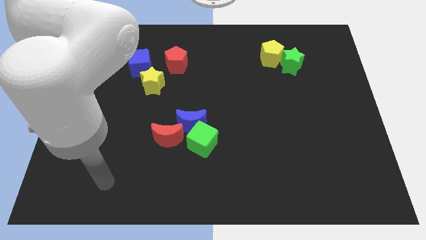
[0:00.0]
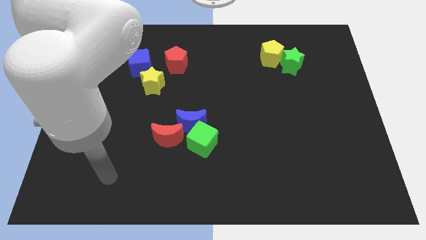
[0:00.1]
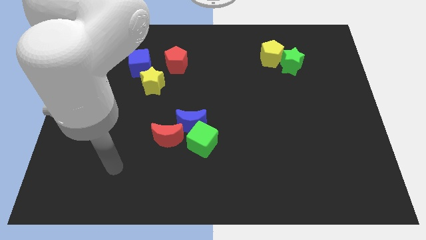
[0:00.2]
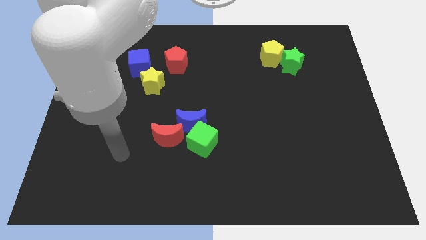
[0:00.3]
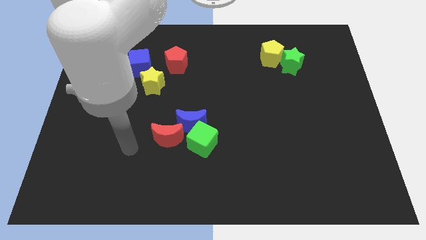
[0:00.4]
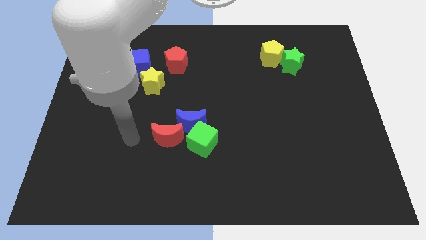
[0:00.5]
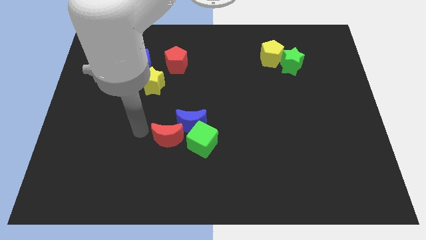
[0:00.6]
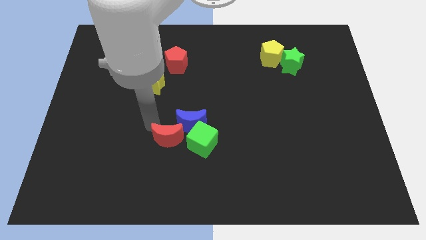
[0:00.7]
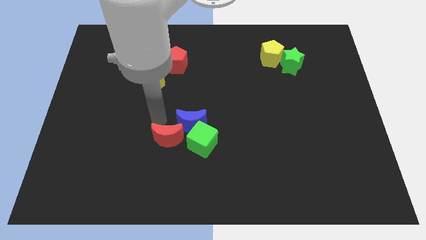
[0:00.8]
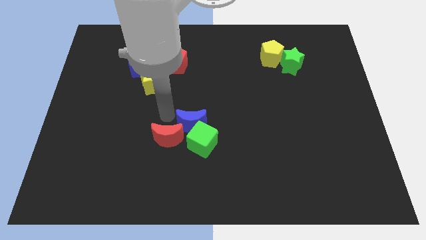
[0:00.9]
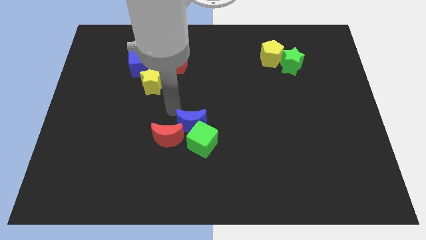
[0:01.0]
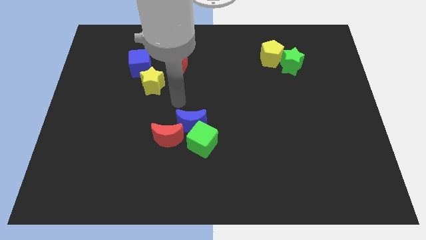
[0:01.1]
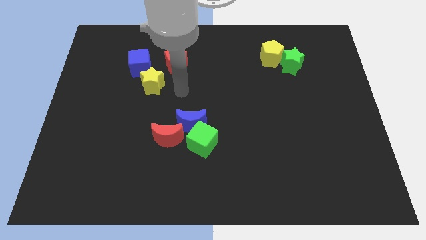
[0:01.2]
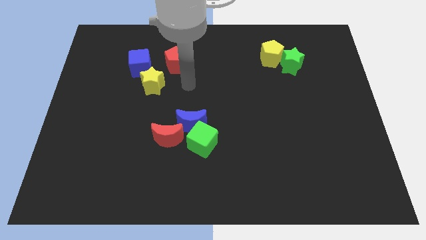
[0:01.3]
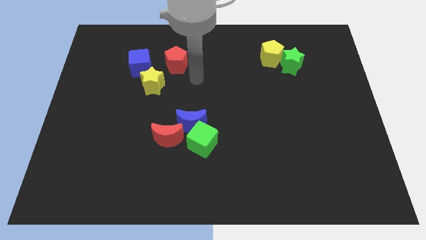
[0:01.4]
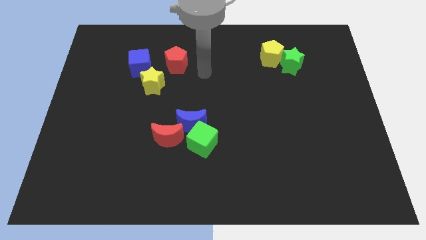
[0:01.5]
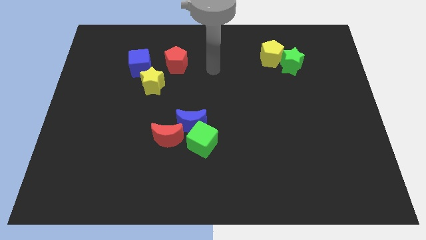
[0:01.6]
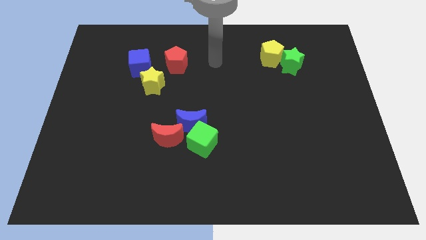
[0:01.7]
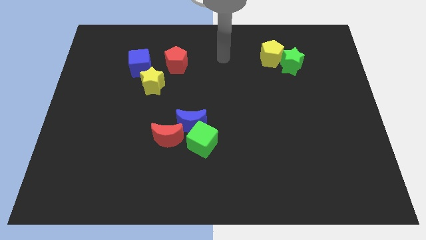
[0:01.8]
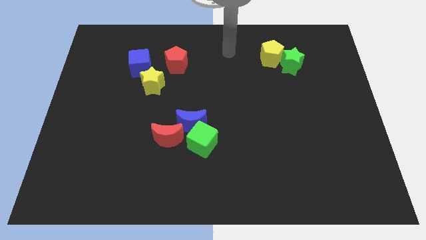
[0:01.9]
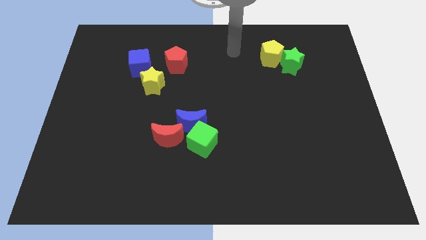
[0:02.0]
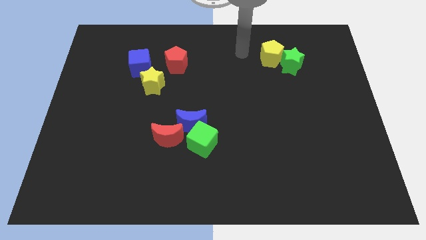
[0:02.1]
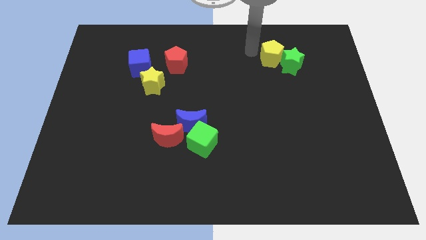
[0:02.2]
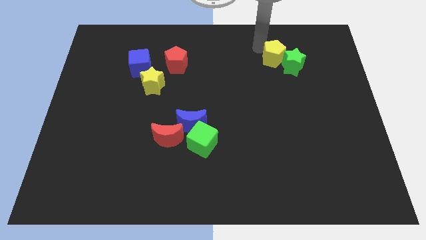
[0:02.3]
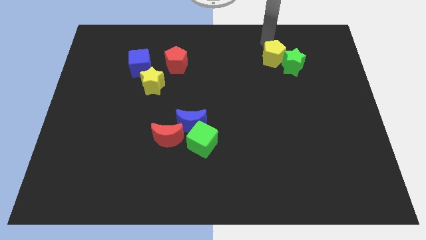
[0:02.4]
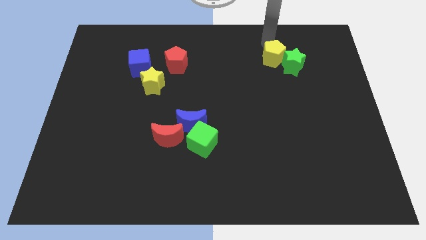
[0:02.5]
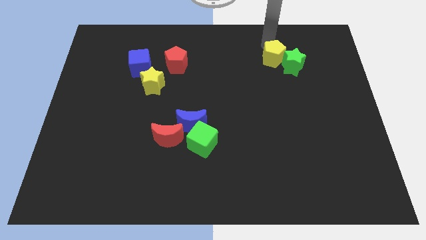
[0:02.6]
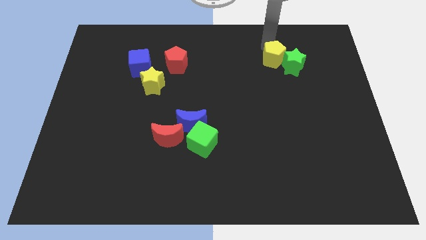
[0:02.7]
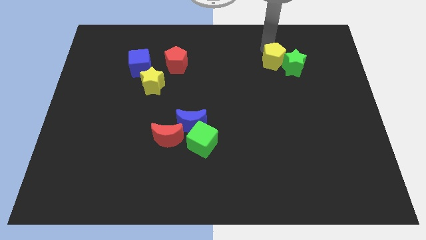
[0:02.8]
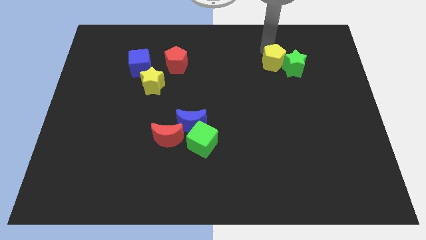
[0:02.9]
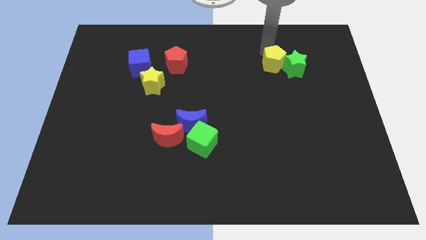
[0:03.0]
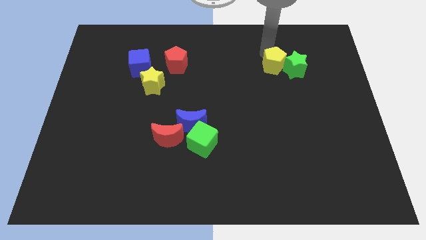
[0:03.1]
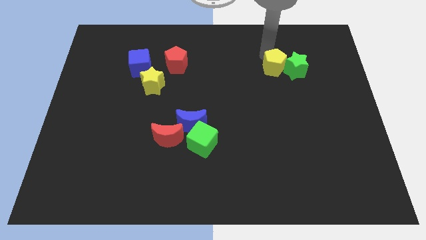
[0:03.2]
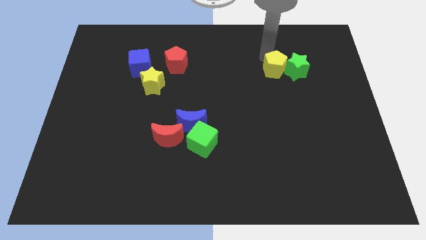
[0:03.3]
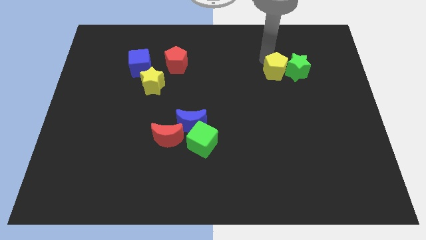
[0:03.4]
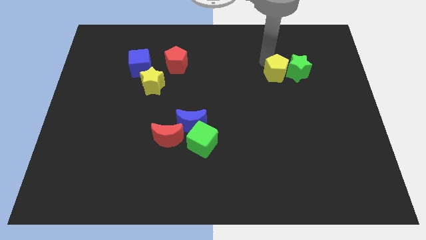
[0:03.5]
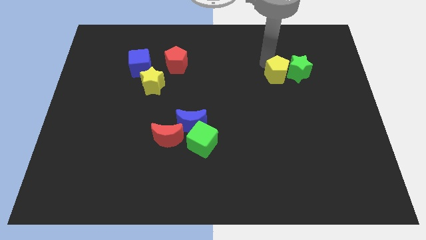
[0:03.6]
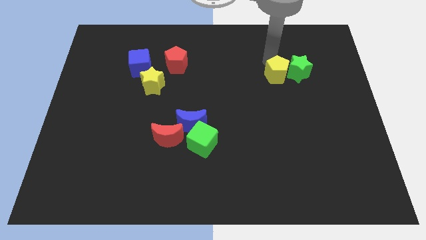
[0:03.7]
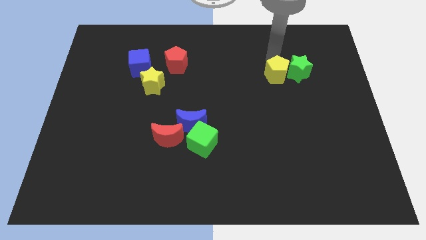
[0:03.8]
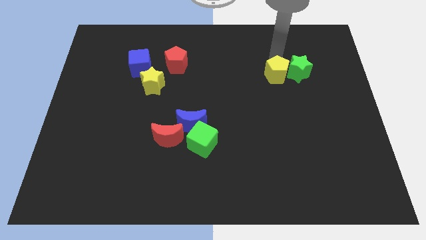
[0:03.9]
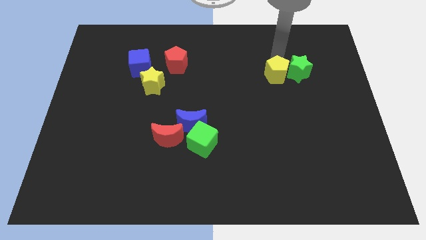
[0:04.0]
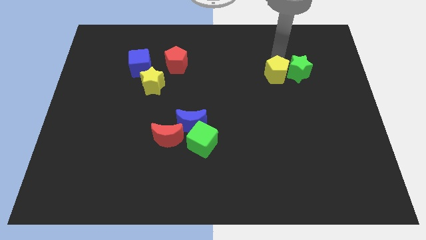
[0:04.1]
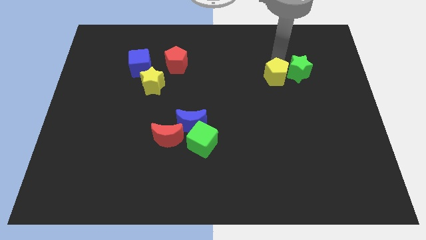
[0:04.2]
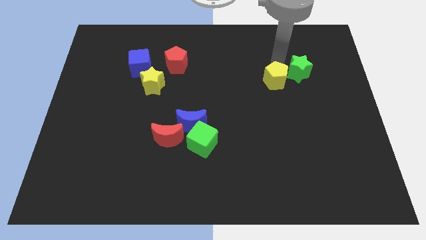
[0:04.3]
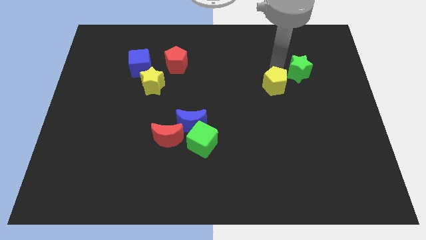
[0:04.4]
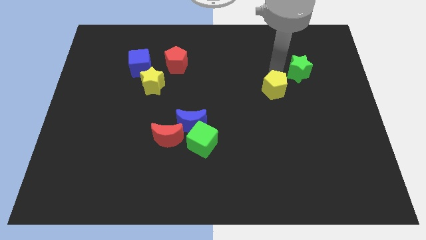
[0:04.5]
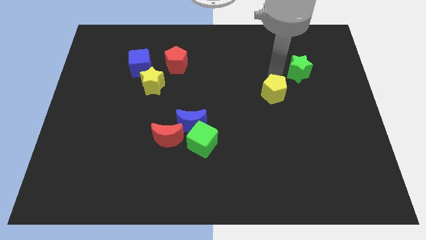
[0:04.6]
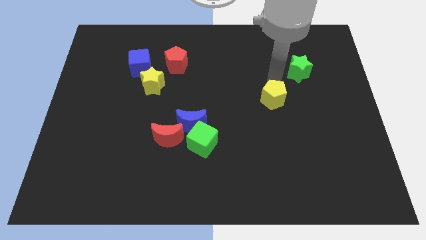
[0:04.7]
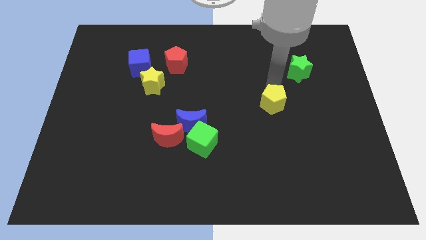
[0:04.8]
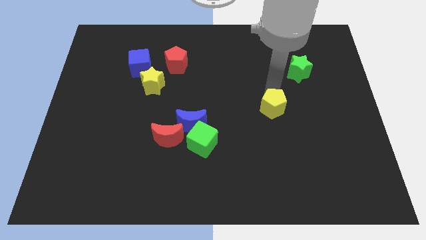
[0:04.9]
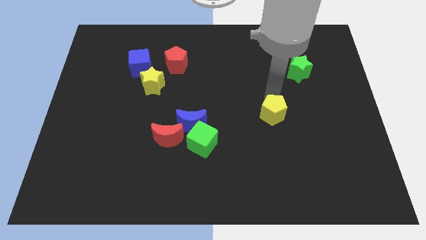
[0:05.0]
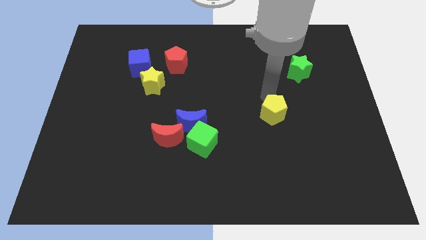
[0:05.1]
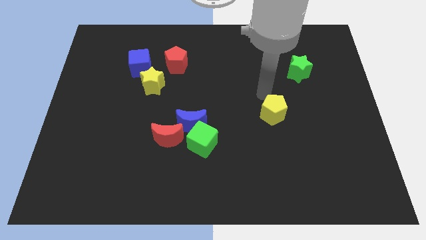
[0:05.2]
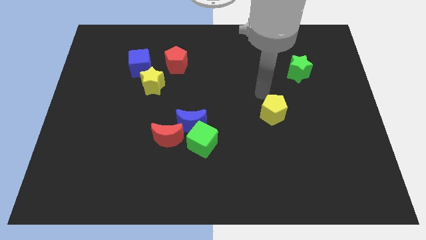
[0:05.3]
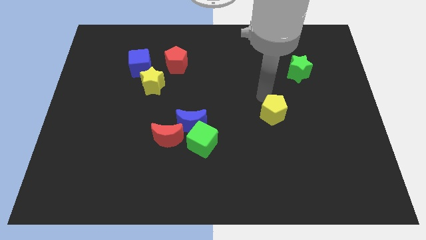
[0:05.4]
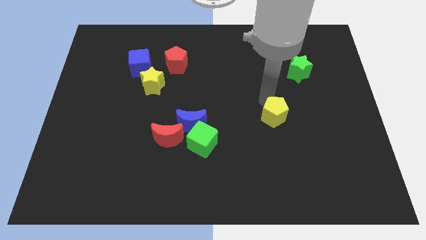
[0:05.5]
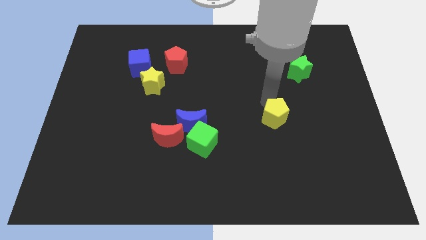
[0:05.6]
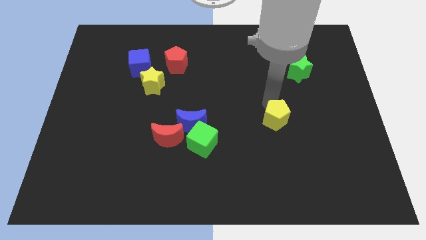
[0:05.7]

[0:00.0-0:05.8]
slide the yellow pentagon down

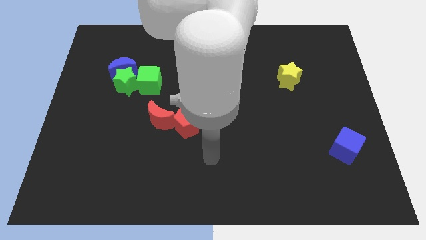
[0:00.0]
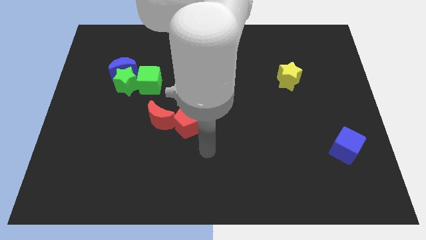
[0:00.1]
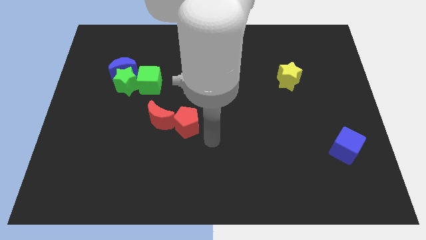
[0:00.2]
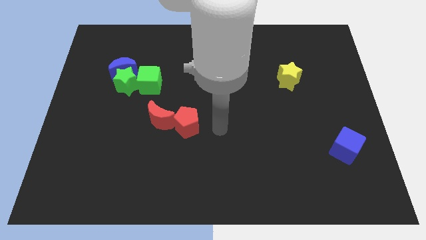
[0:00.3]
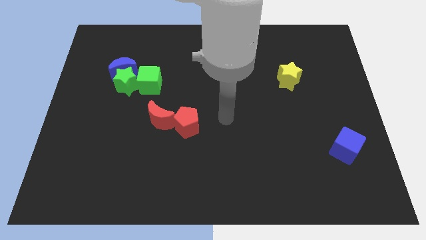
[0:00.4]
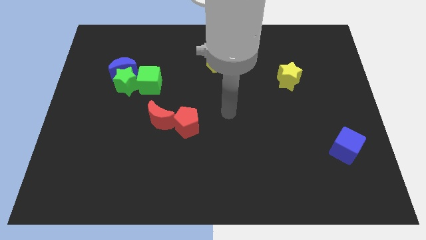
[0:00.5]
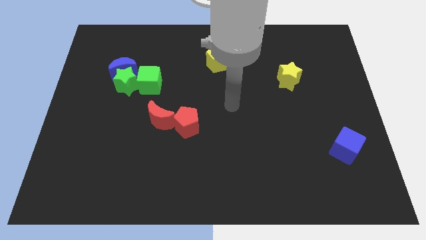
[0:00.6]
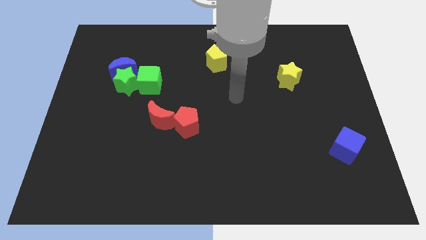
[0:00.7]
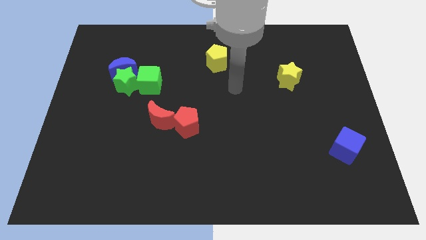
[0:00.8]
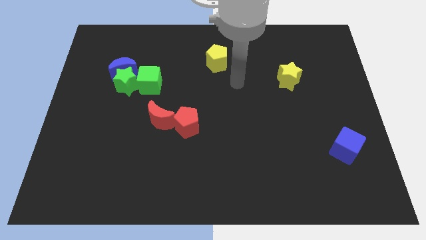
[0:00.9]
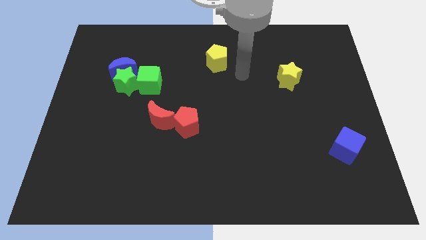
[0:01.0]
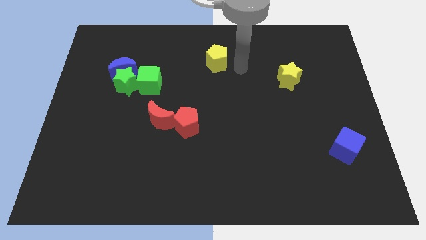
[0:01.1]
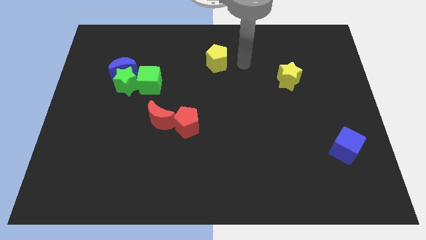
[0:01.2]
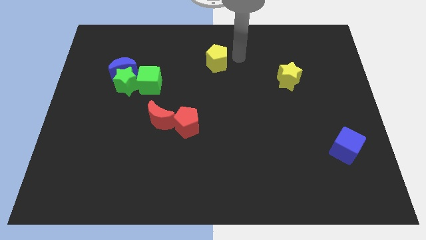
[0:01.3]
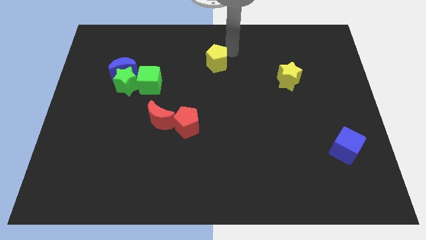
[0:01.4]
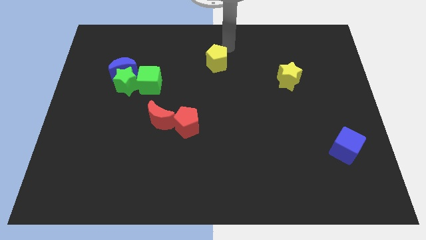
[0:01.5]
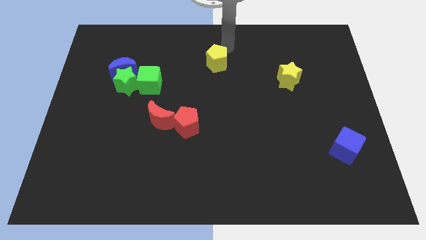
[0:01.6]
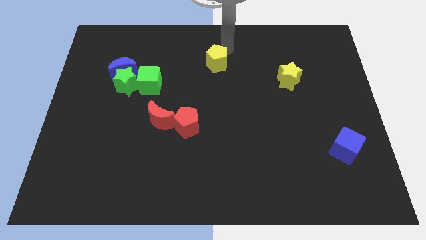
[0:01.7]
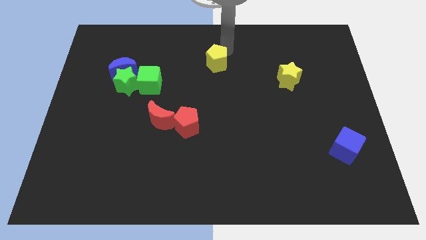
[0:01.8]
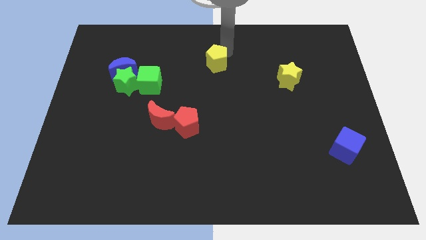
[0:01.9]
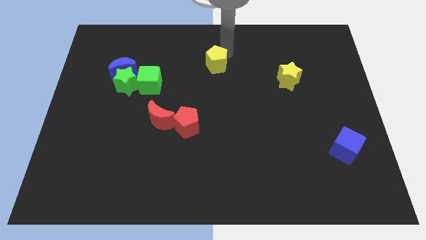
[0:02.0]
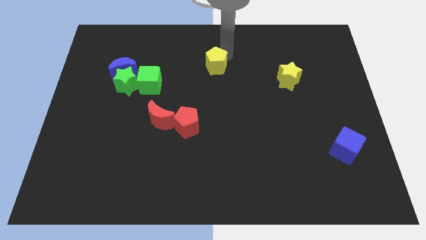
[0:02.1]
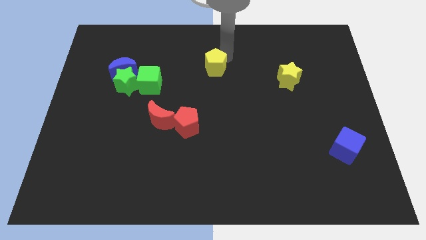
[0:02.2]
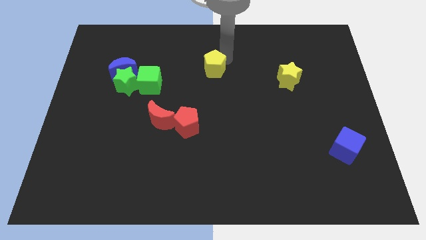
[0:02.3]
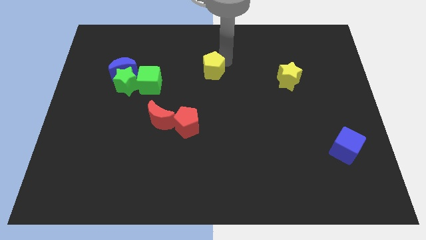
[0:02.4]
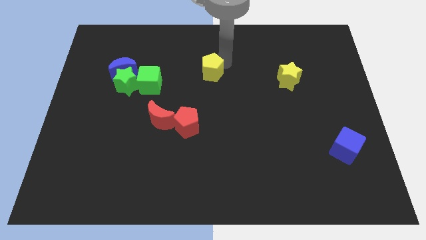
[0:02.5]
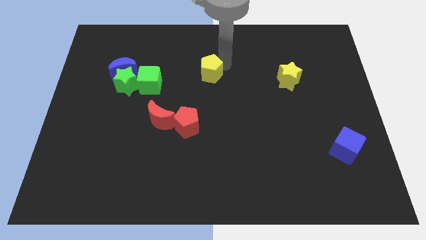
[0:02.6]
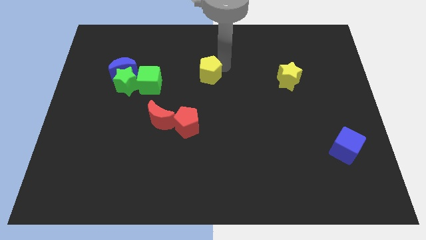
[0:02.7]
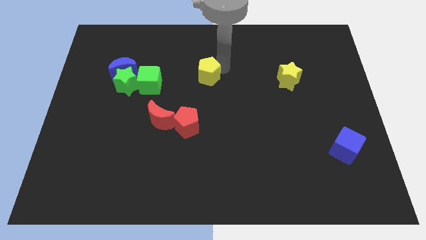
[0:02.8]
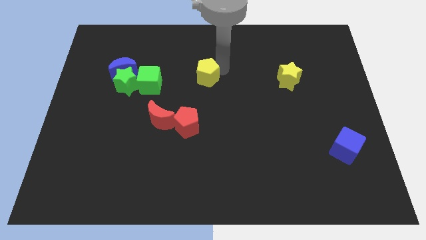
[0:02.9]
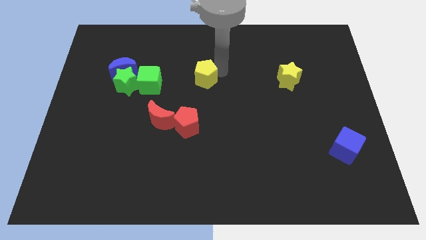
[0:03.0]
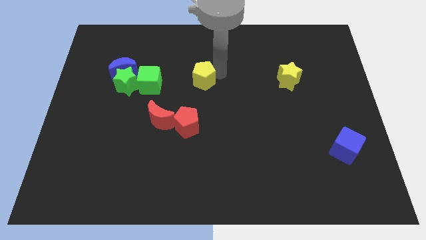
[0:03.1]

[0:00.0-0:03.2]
move the yellow pentagon slightly downwards and to the left diagonally
